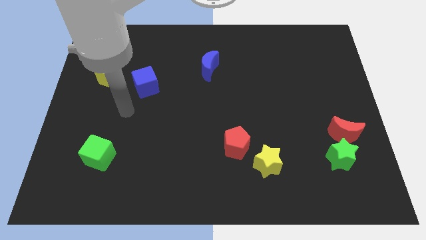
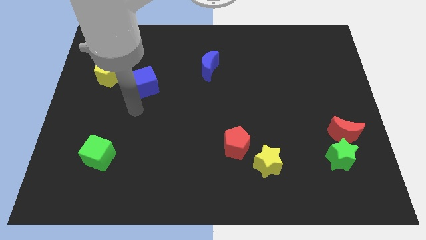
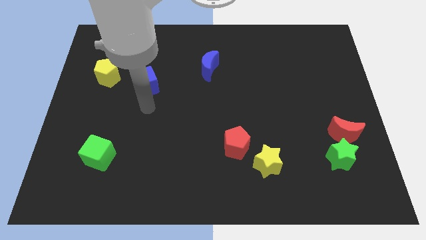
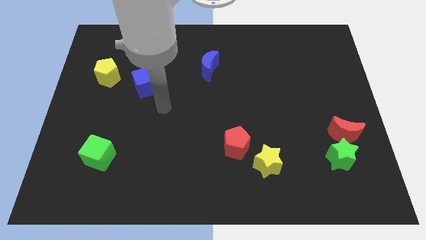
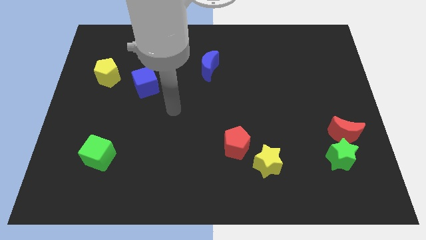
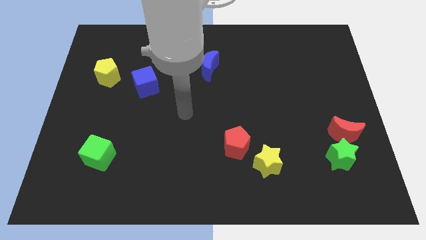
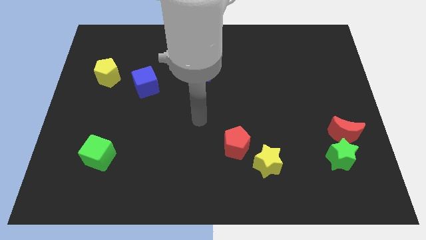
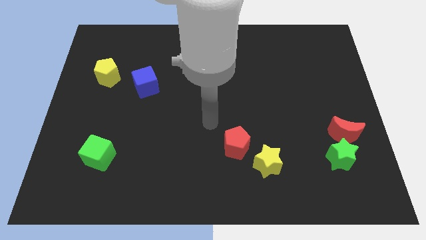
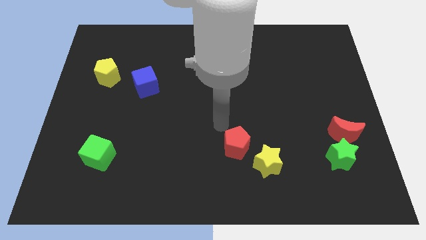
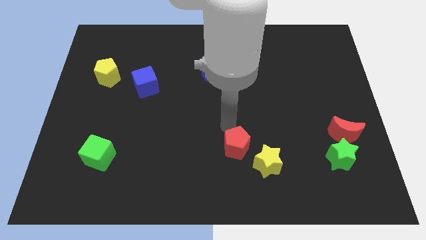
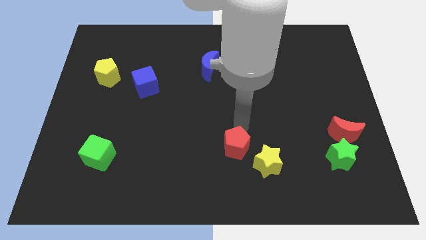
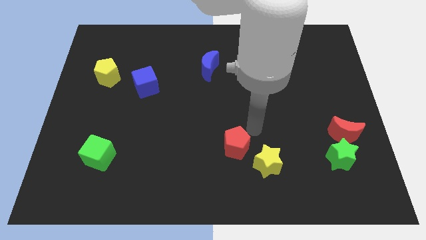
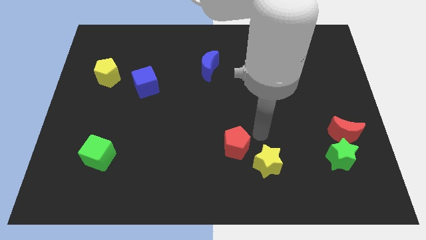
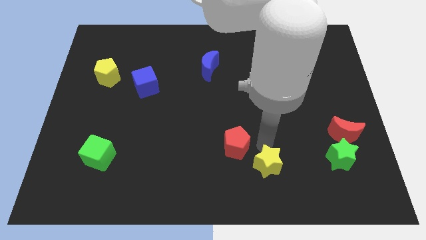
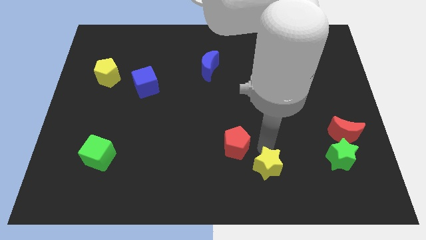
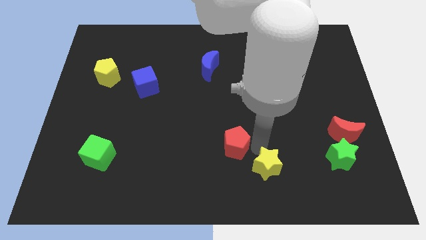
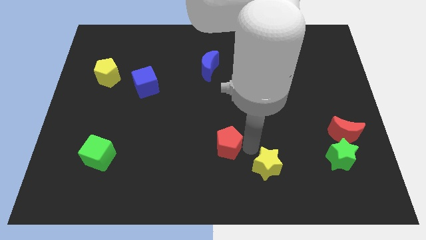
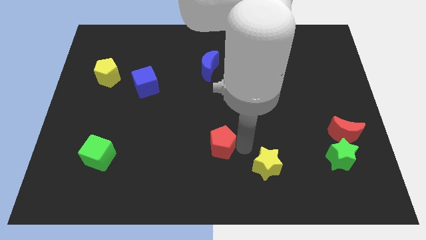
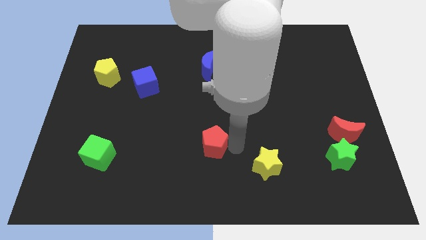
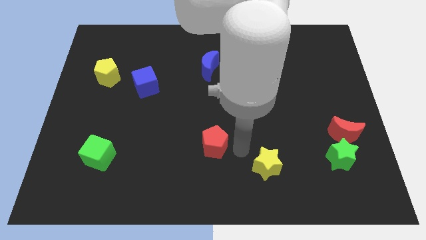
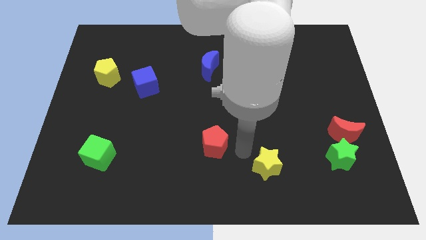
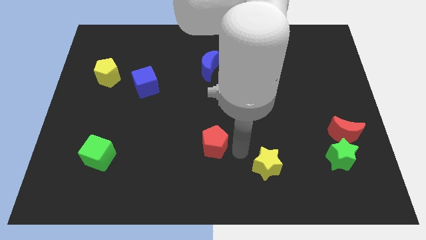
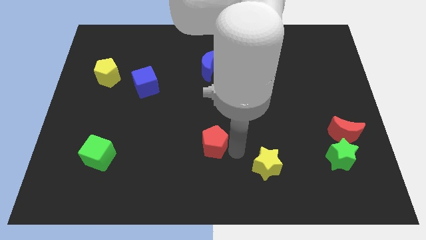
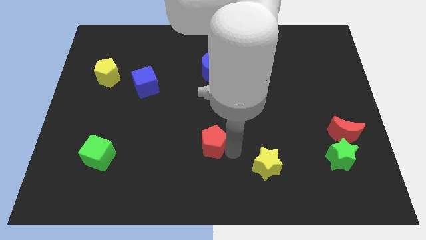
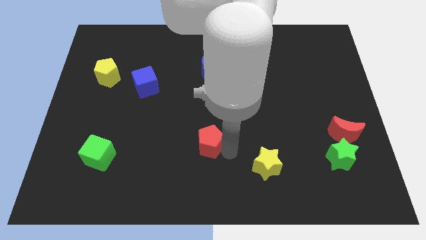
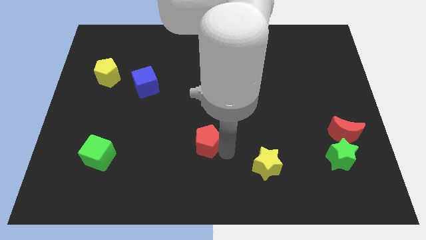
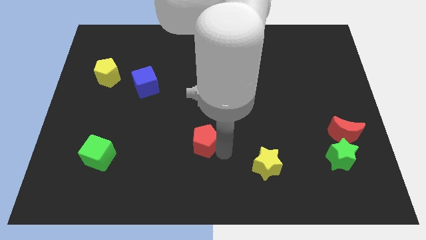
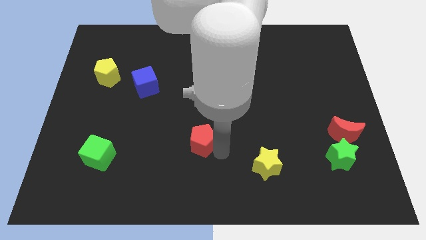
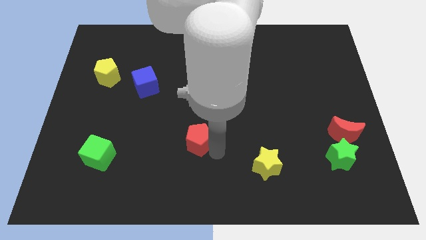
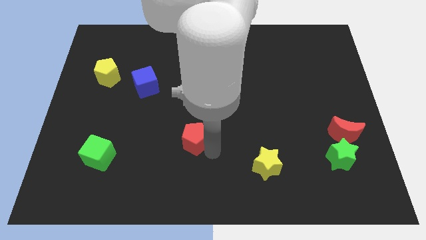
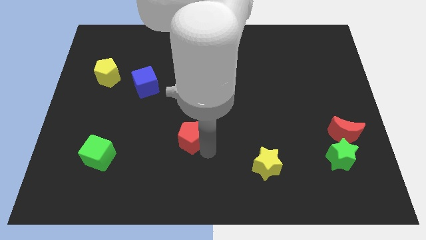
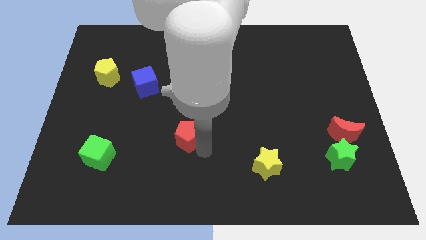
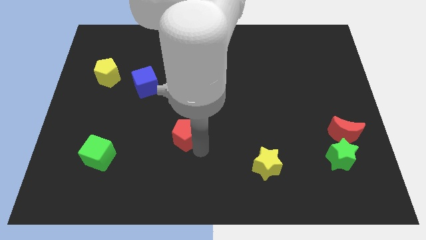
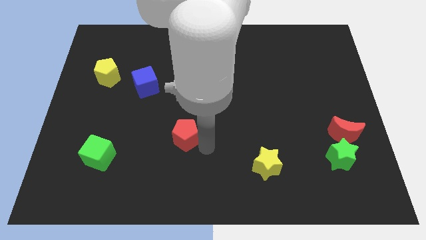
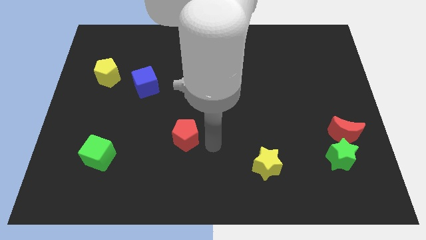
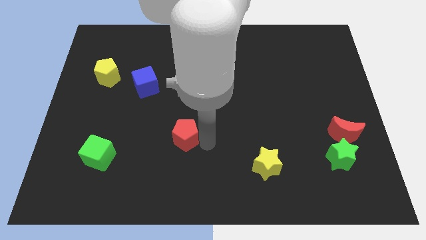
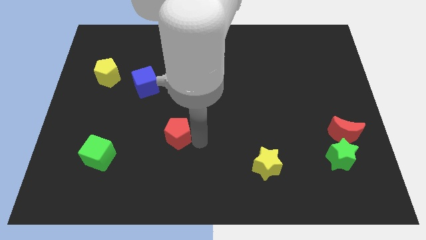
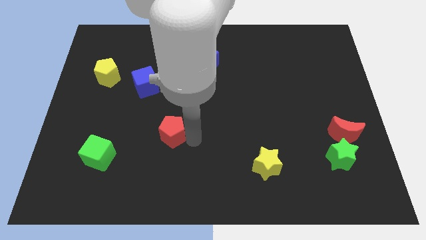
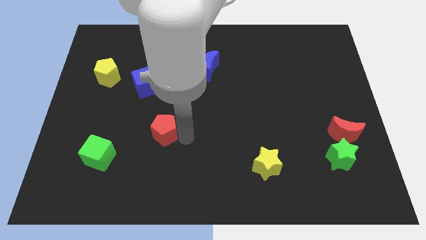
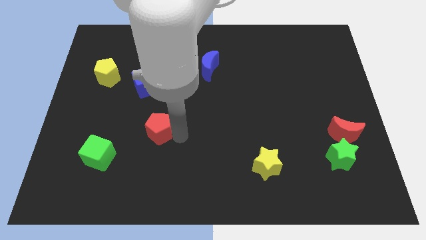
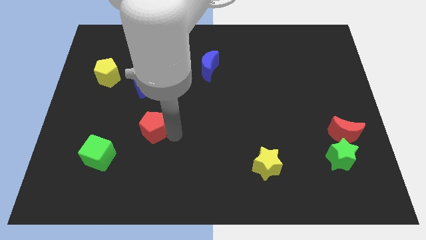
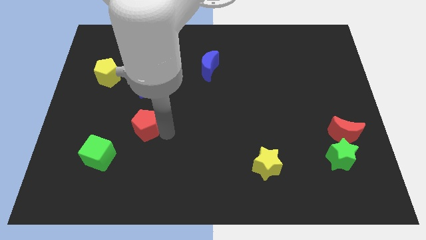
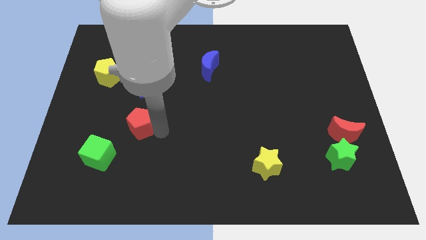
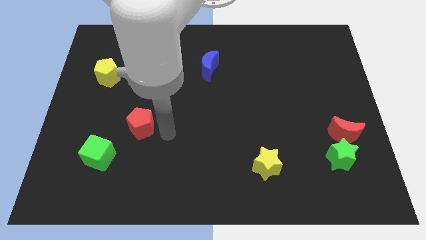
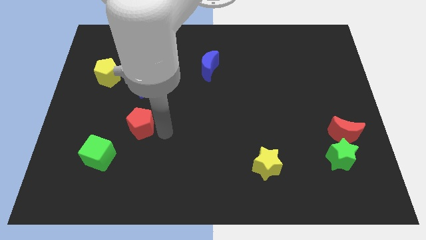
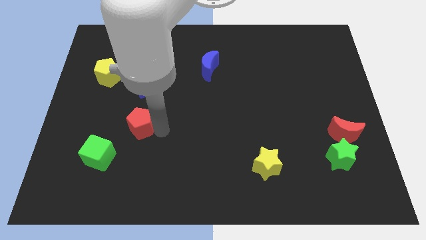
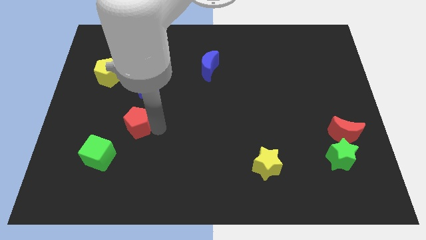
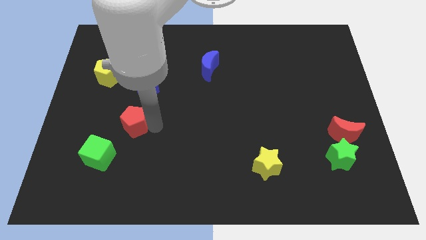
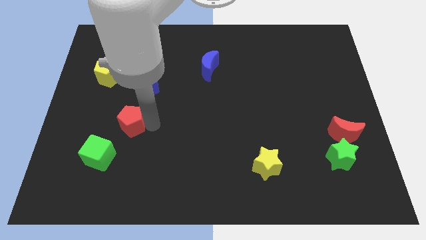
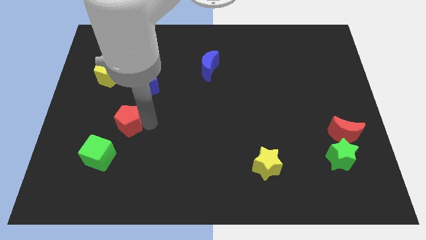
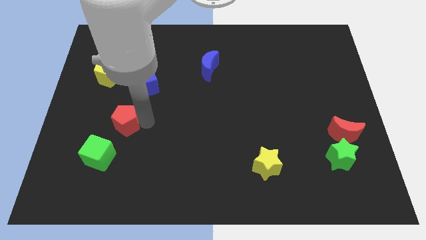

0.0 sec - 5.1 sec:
slide the red pentagon above the green cube

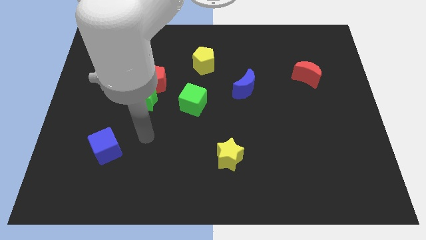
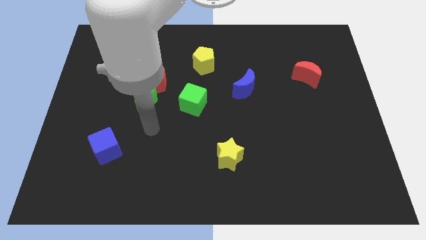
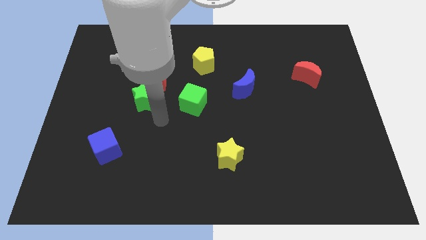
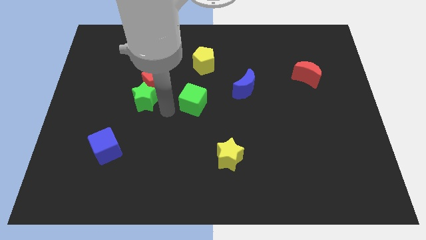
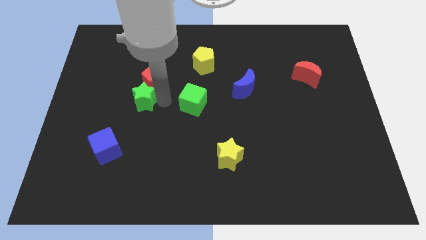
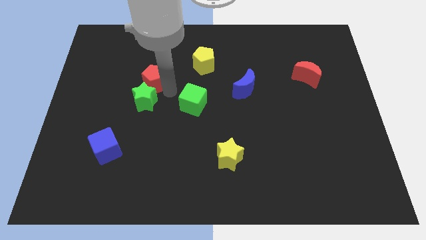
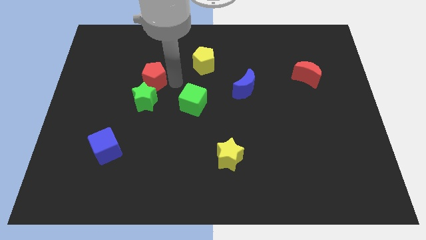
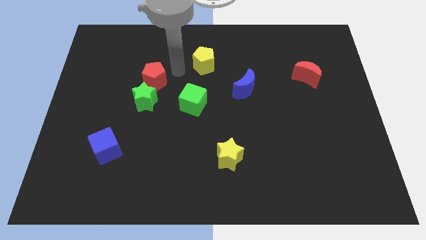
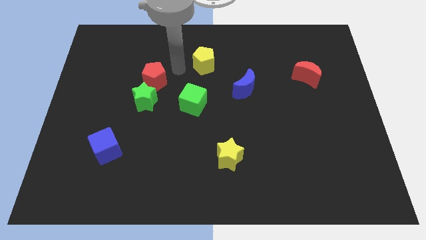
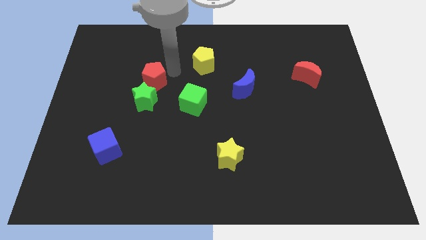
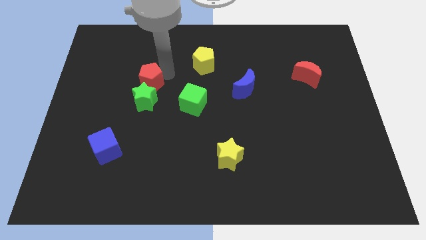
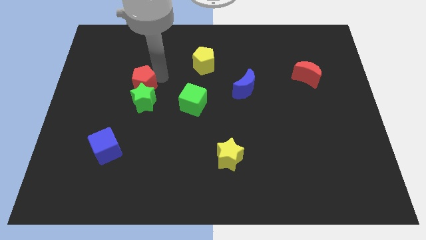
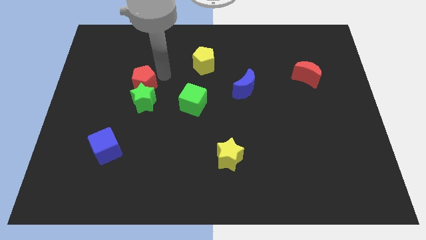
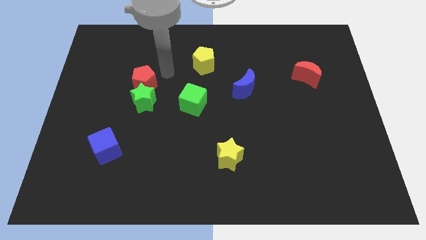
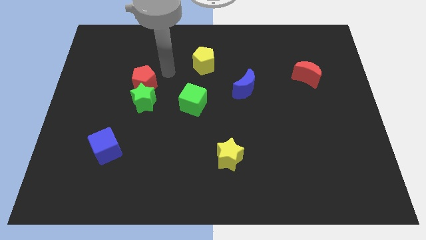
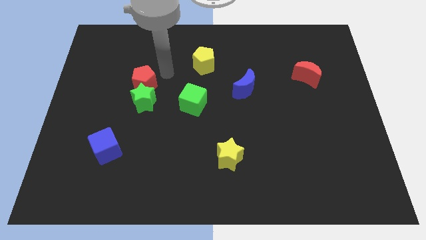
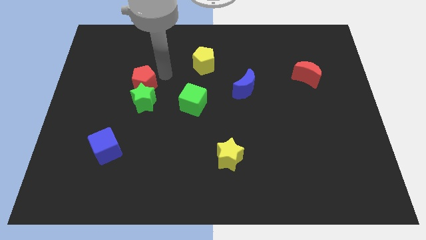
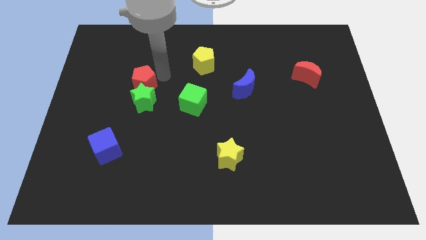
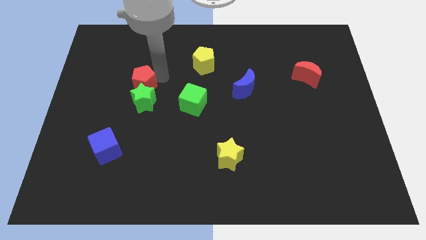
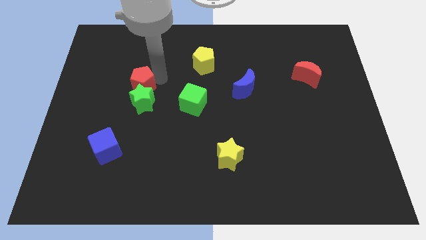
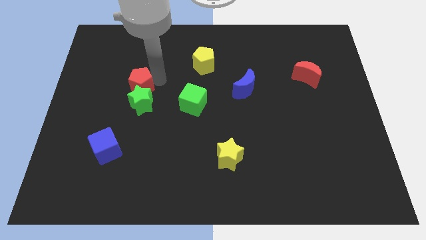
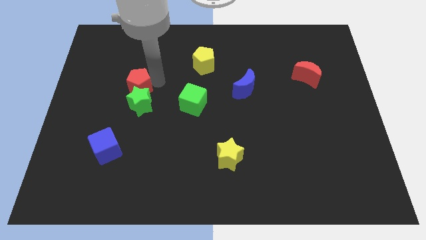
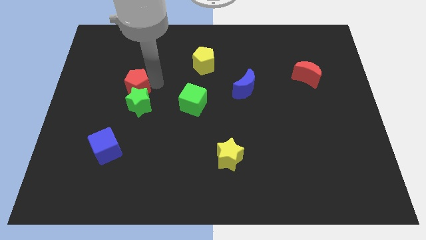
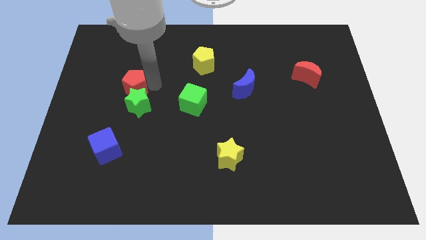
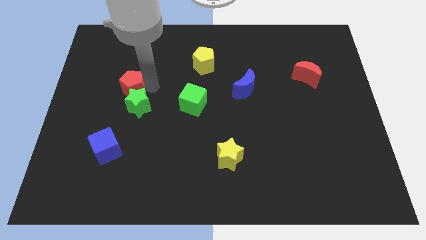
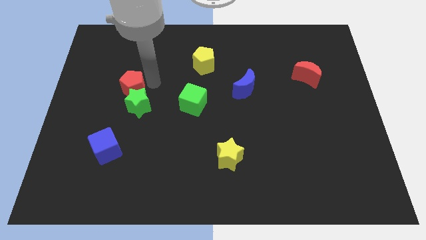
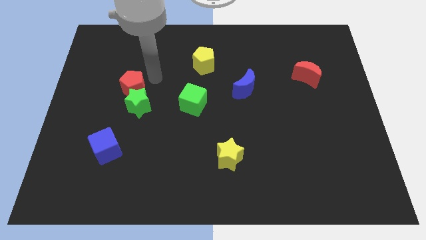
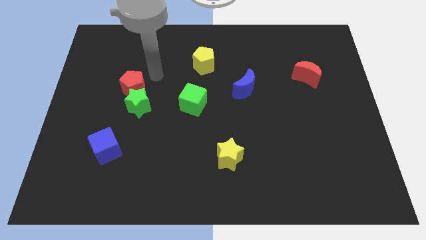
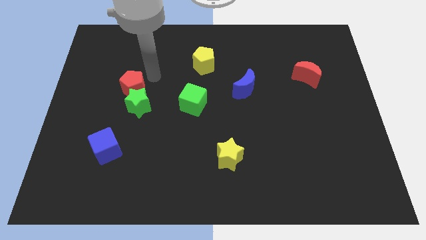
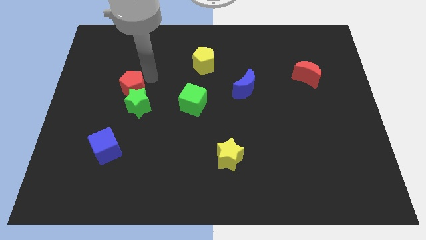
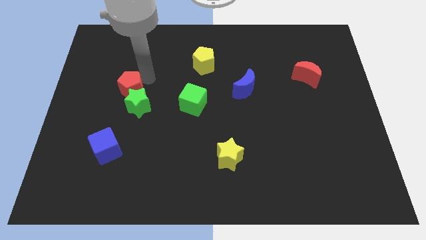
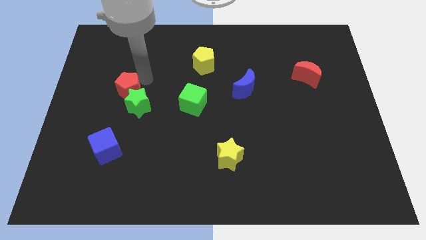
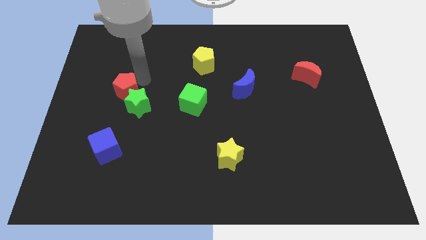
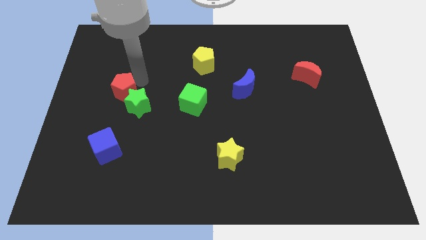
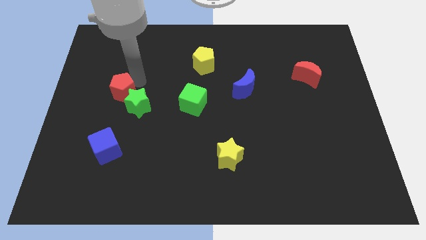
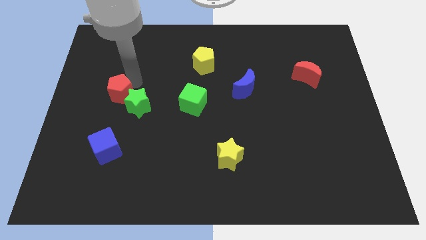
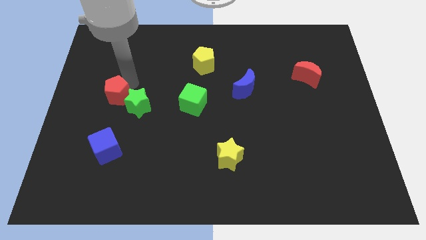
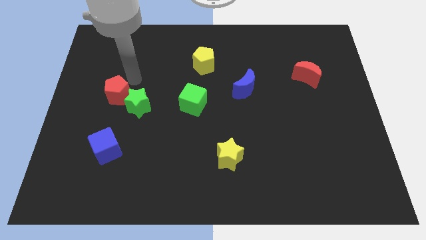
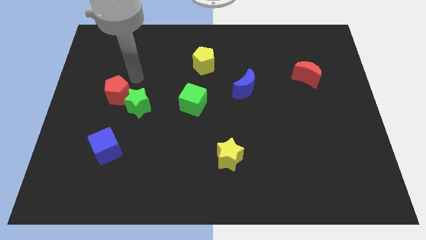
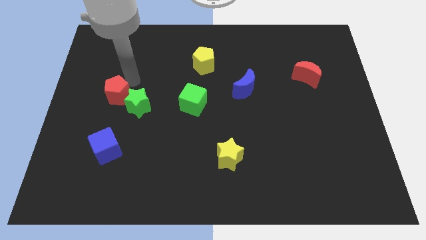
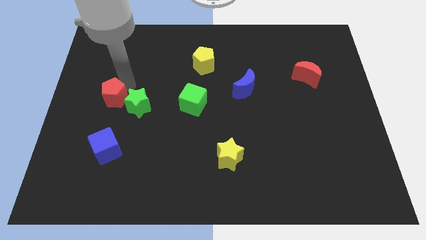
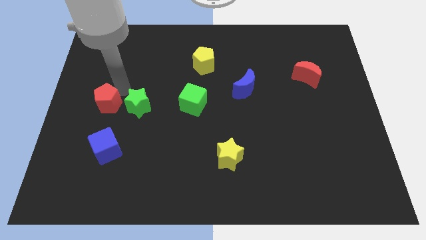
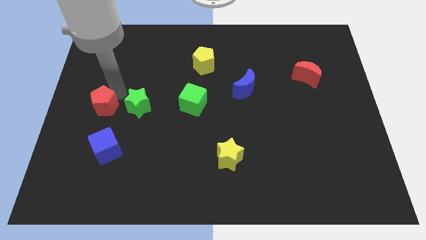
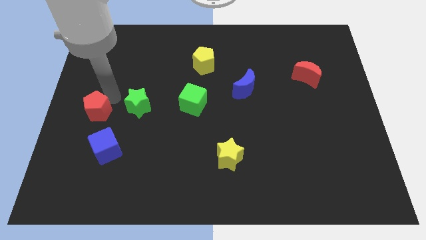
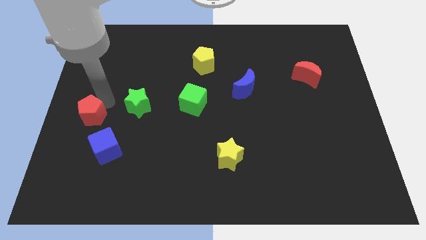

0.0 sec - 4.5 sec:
move the red pentagon to the top left of the blue cube
